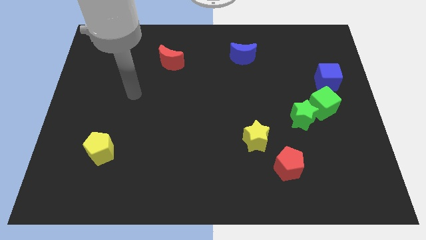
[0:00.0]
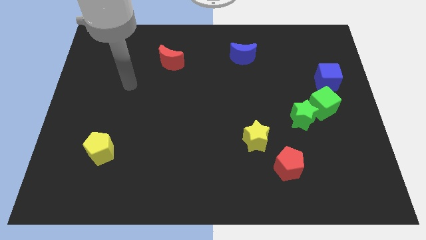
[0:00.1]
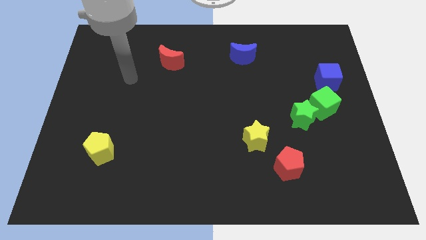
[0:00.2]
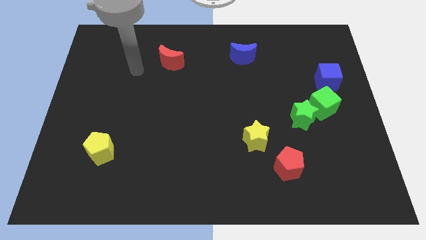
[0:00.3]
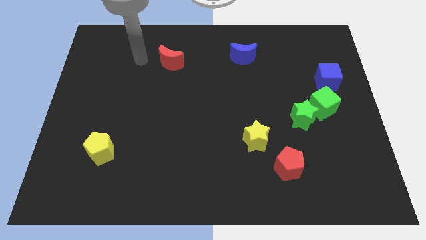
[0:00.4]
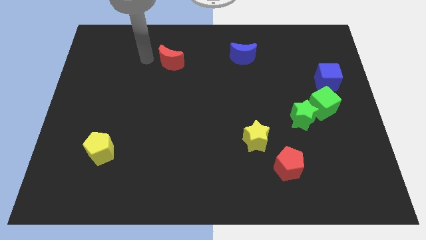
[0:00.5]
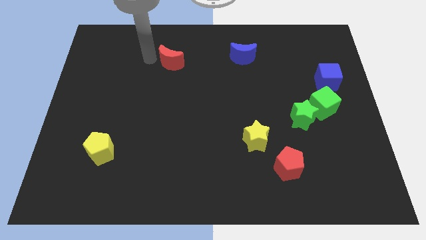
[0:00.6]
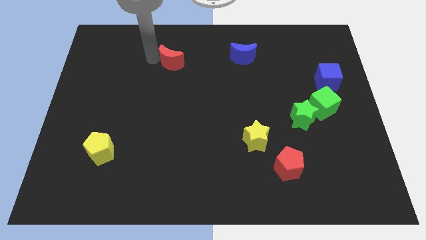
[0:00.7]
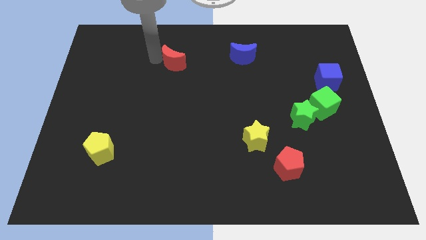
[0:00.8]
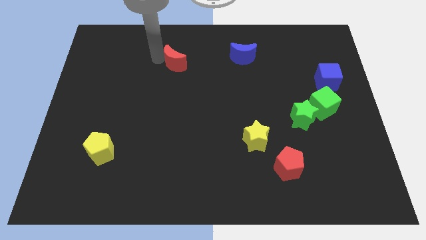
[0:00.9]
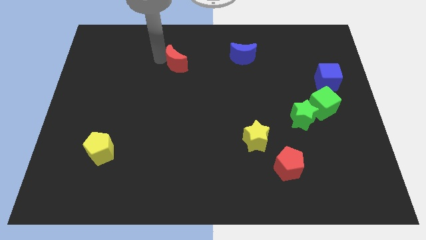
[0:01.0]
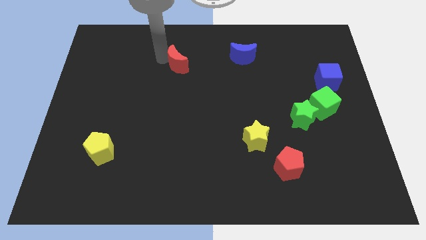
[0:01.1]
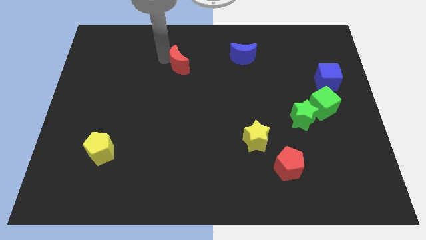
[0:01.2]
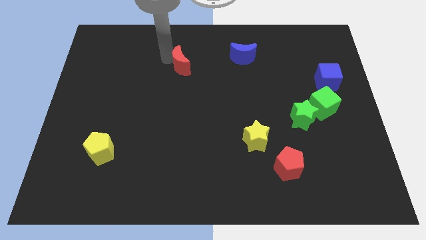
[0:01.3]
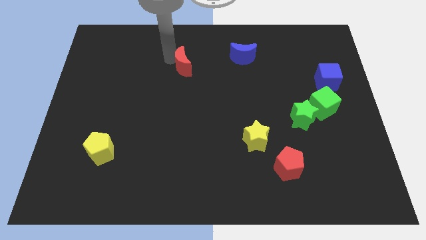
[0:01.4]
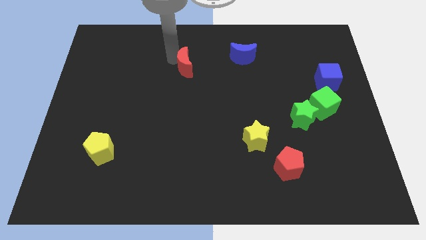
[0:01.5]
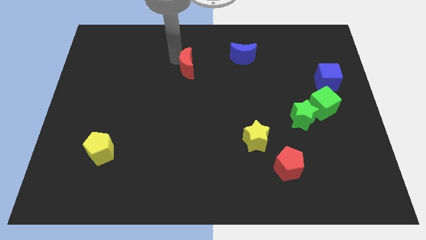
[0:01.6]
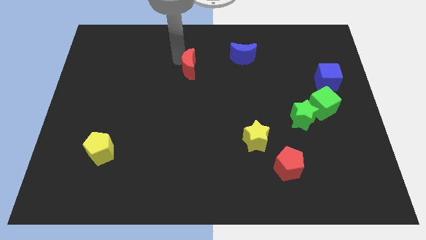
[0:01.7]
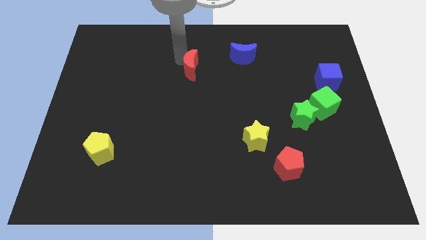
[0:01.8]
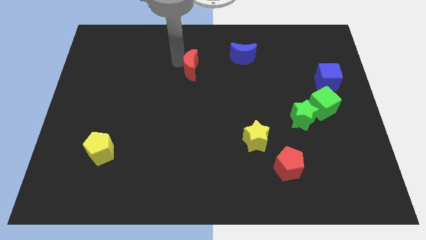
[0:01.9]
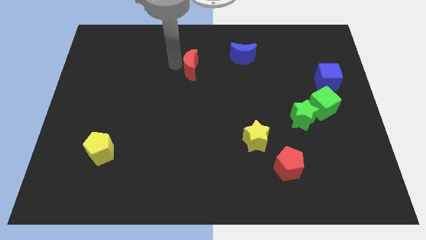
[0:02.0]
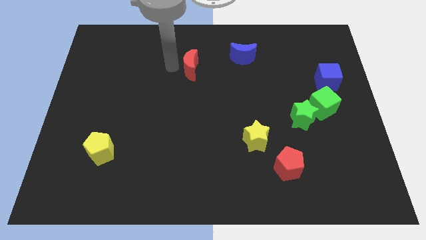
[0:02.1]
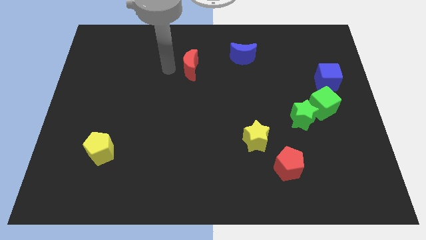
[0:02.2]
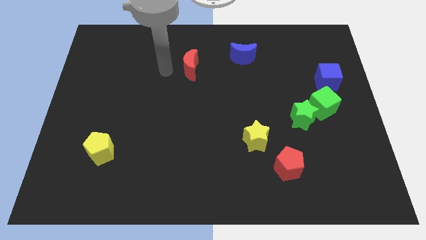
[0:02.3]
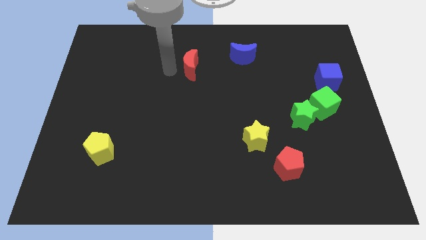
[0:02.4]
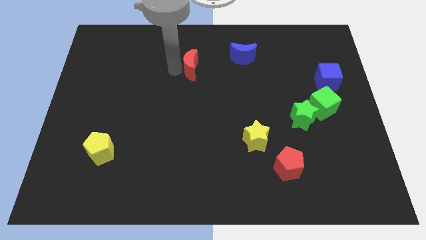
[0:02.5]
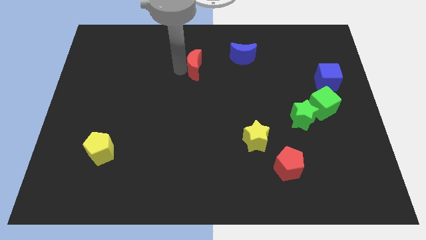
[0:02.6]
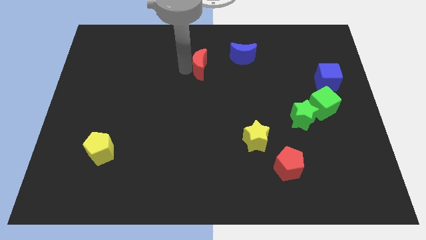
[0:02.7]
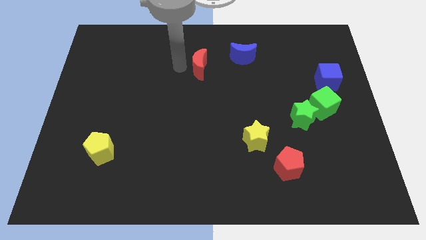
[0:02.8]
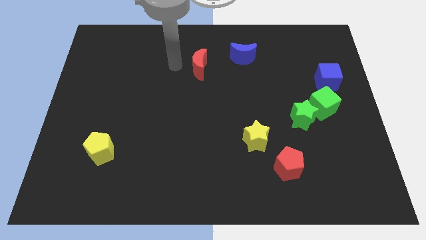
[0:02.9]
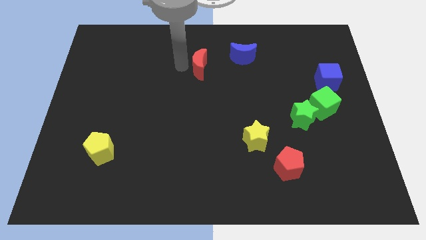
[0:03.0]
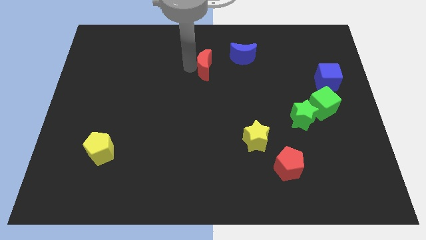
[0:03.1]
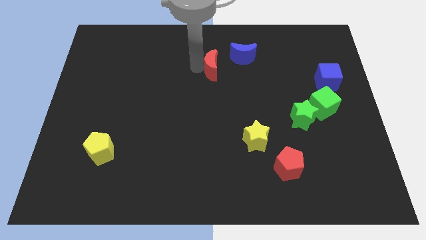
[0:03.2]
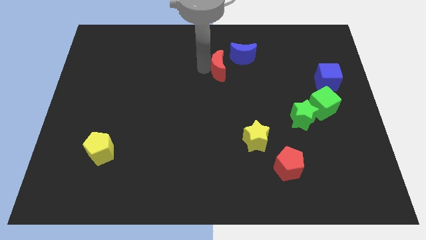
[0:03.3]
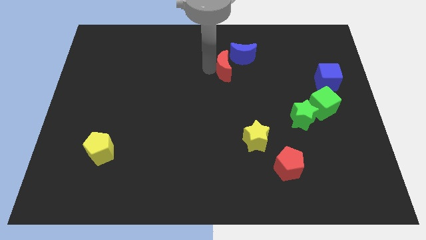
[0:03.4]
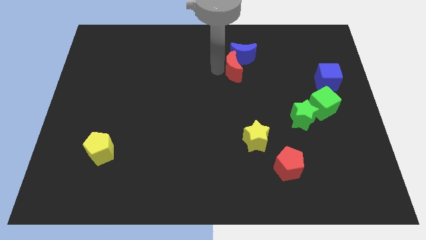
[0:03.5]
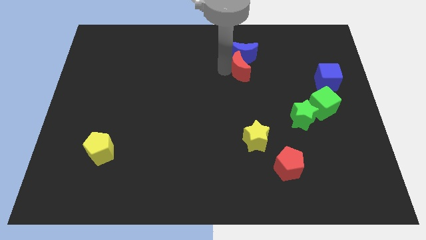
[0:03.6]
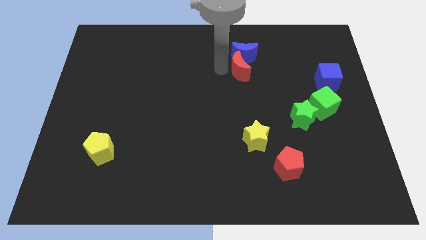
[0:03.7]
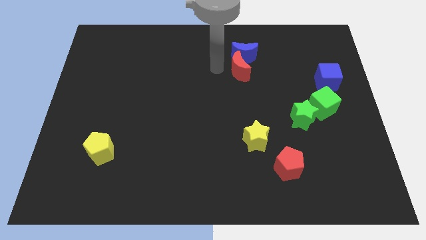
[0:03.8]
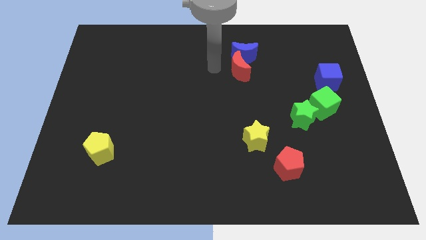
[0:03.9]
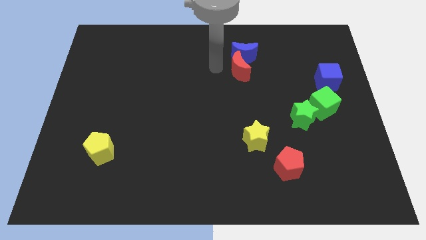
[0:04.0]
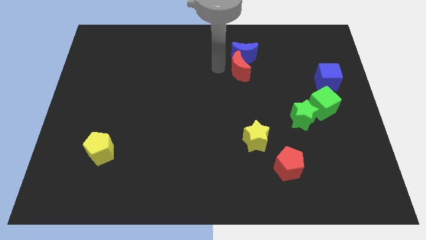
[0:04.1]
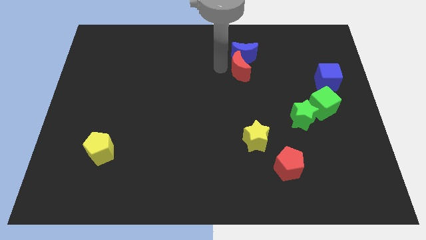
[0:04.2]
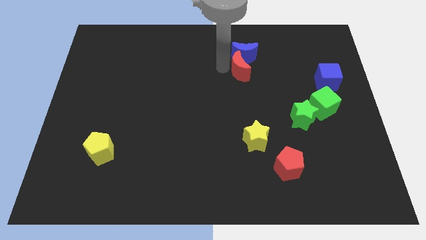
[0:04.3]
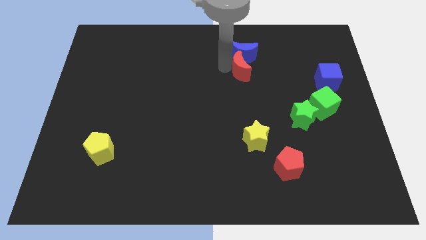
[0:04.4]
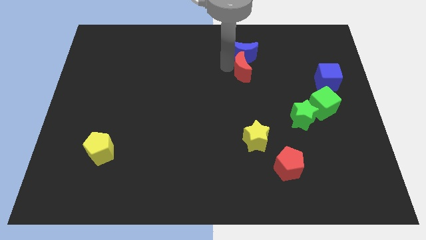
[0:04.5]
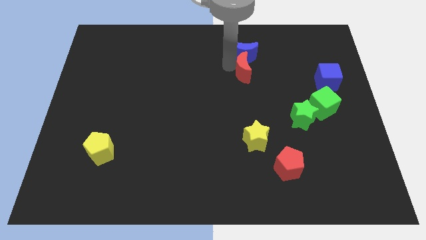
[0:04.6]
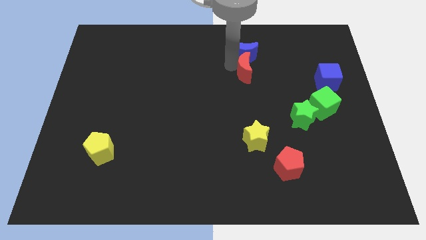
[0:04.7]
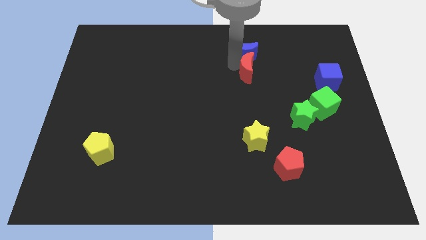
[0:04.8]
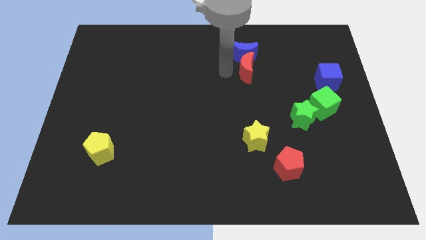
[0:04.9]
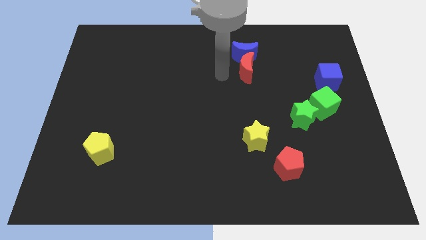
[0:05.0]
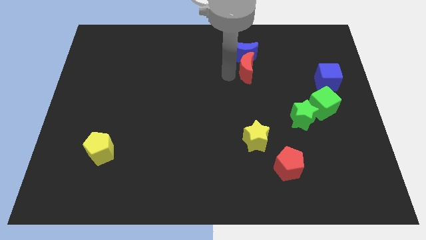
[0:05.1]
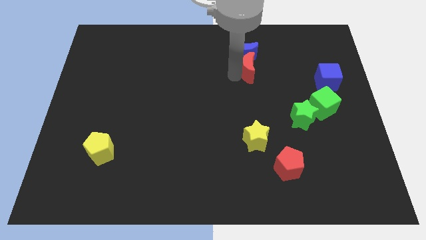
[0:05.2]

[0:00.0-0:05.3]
push the red moon right

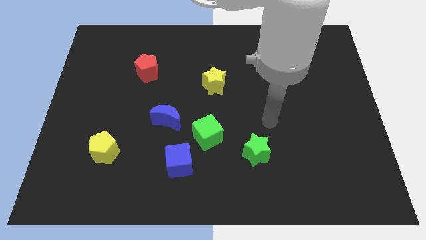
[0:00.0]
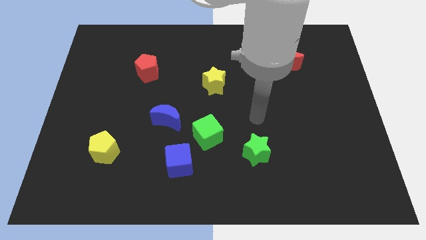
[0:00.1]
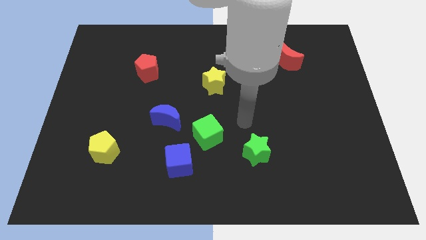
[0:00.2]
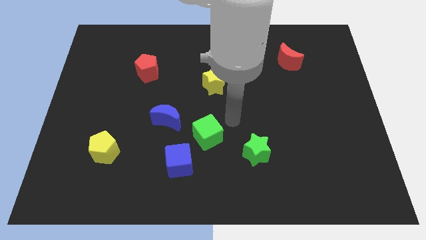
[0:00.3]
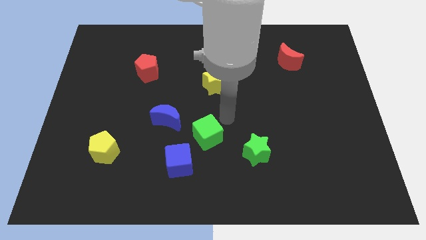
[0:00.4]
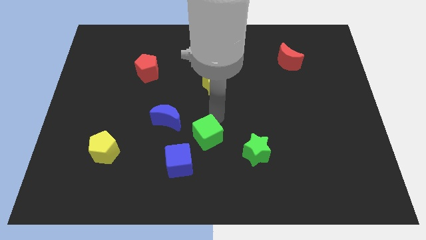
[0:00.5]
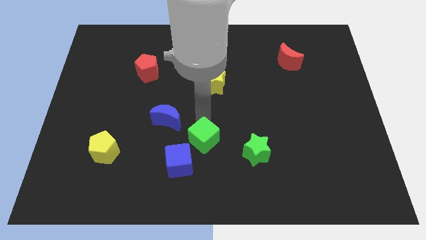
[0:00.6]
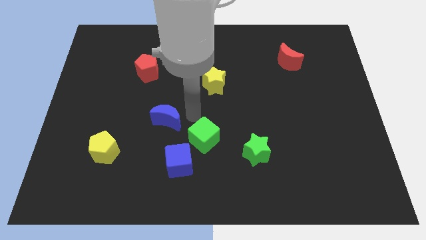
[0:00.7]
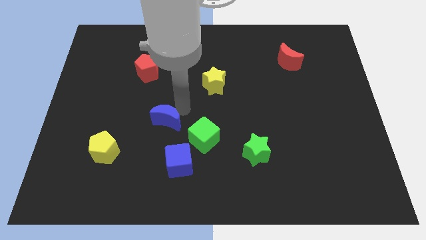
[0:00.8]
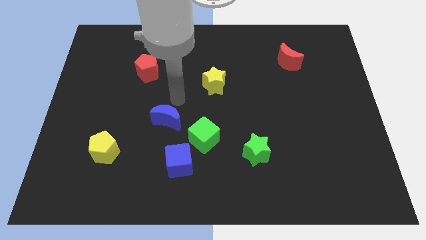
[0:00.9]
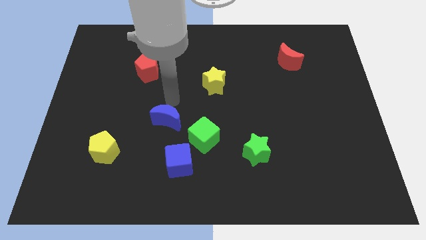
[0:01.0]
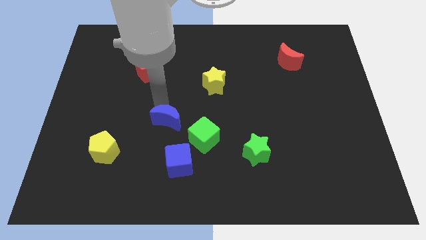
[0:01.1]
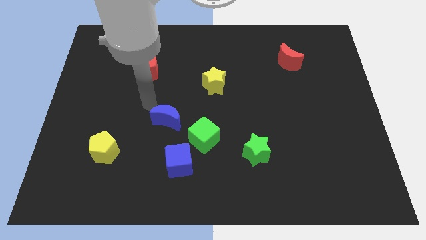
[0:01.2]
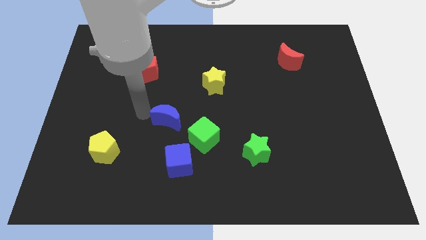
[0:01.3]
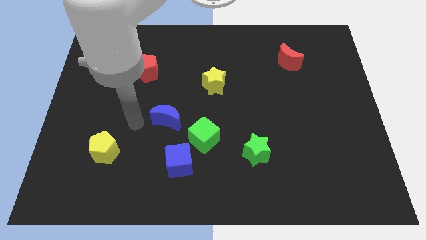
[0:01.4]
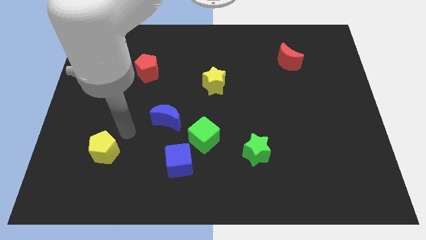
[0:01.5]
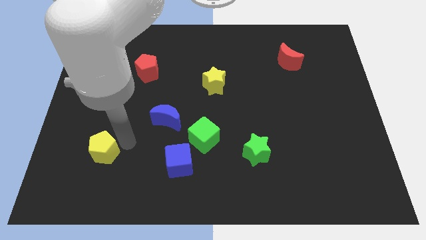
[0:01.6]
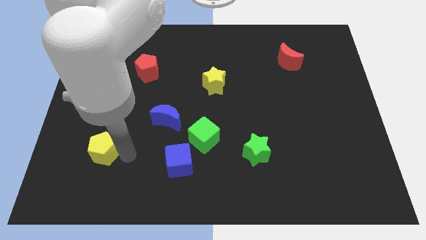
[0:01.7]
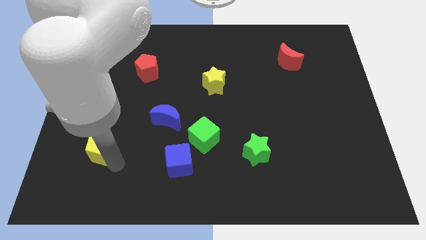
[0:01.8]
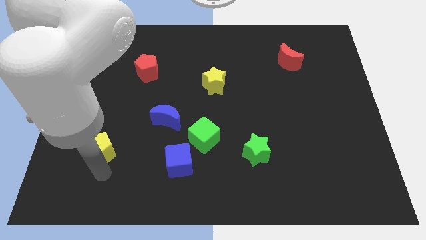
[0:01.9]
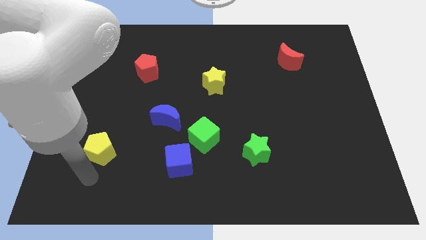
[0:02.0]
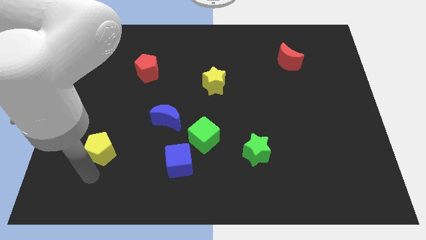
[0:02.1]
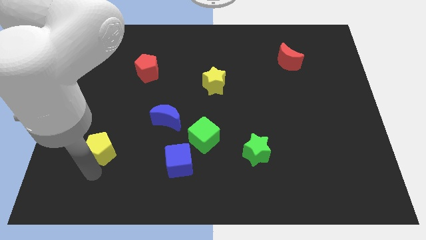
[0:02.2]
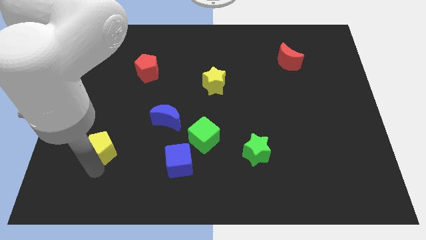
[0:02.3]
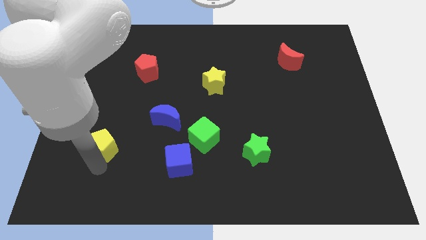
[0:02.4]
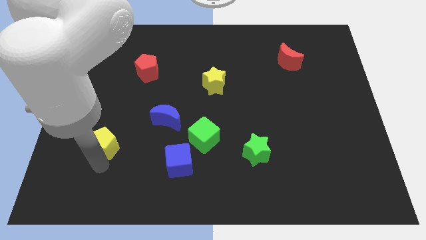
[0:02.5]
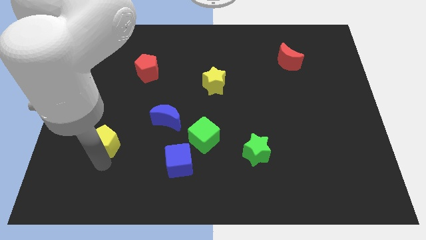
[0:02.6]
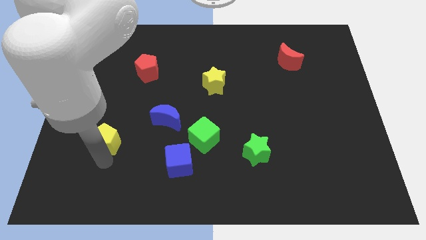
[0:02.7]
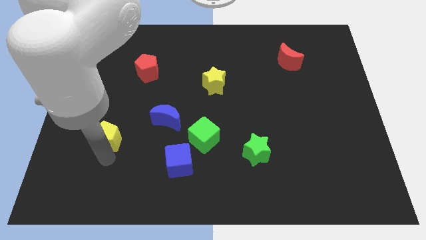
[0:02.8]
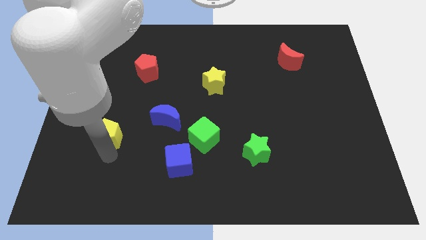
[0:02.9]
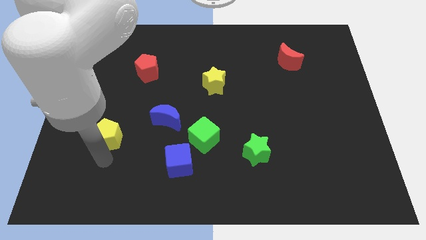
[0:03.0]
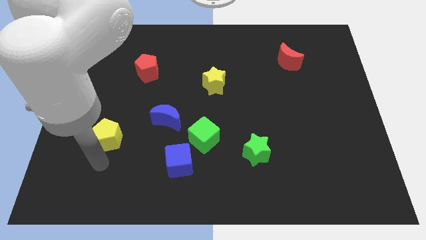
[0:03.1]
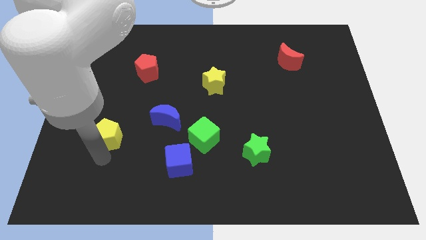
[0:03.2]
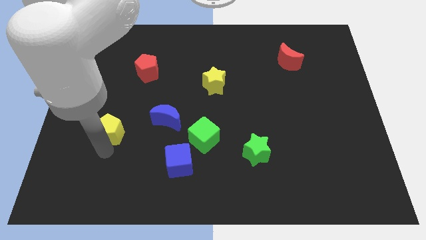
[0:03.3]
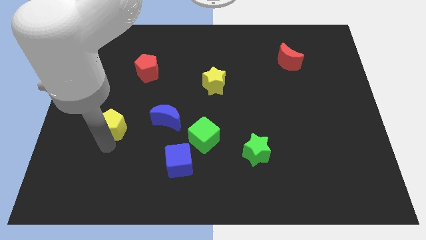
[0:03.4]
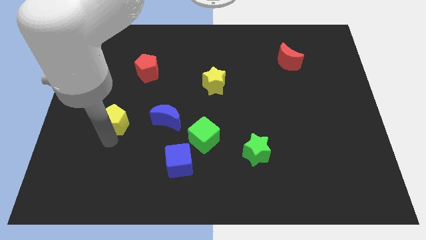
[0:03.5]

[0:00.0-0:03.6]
slide the yellow pentagon up a little
